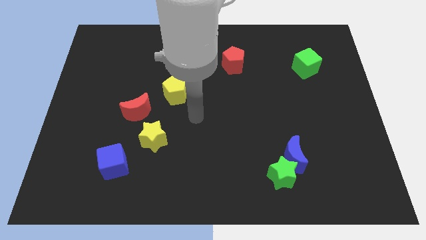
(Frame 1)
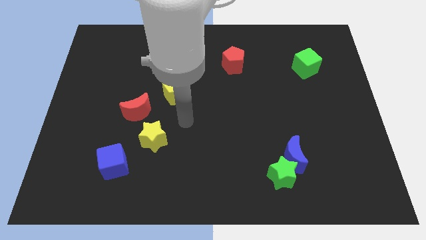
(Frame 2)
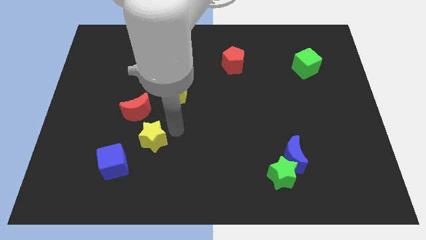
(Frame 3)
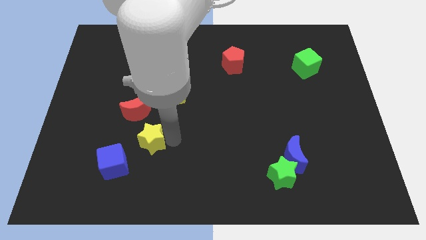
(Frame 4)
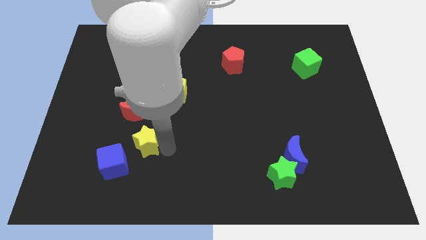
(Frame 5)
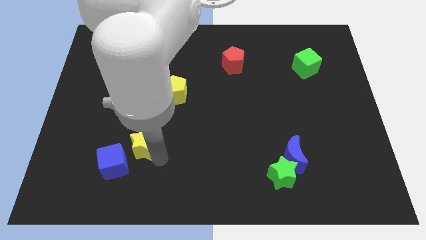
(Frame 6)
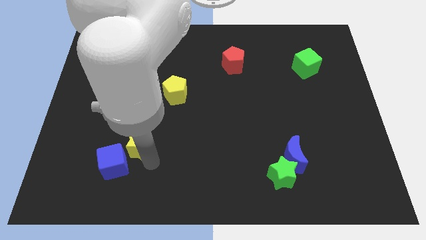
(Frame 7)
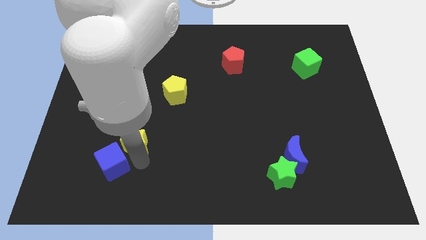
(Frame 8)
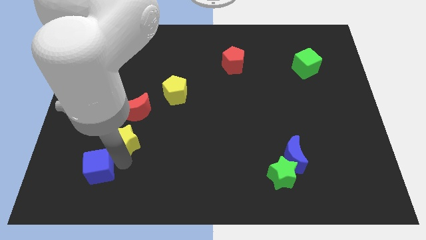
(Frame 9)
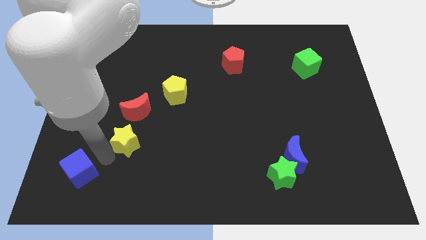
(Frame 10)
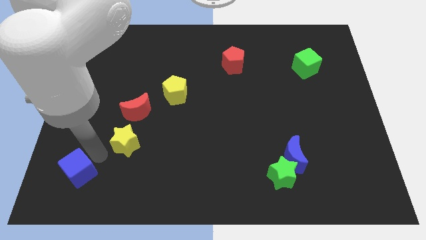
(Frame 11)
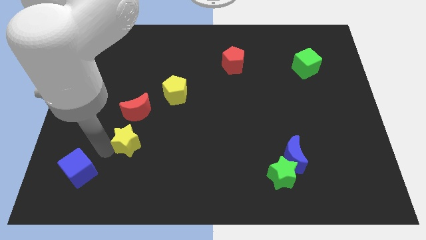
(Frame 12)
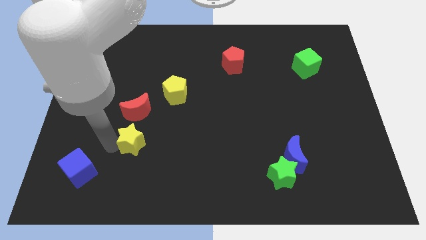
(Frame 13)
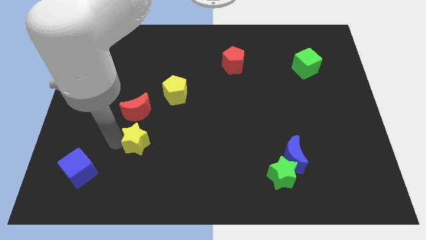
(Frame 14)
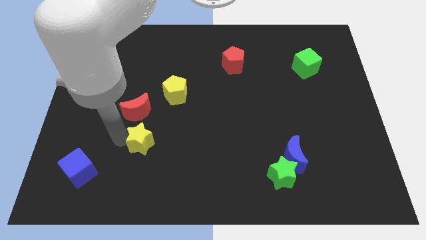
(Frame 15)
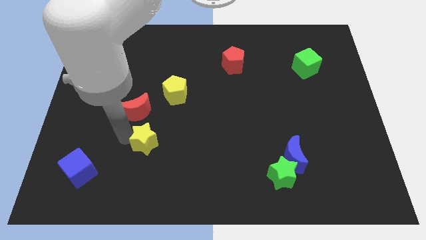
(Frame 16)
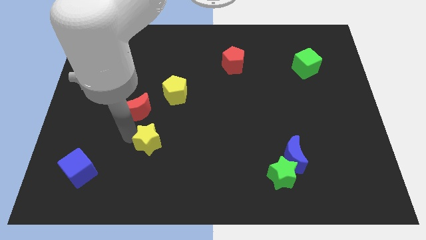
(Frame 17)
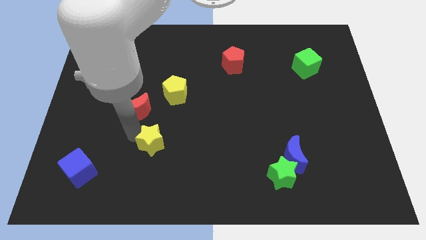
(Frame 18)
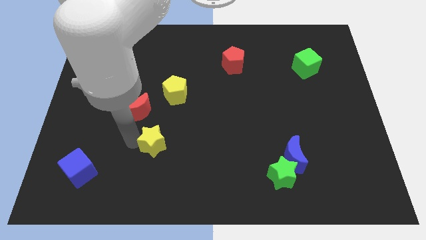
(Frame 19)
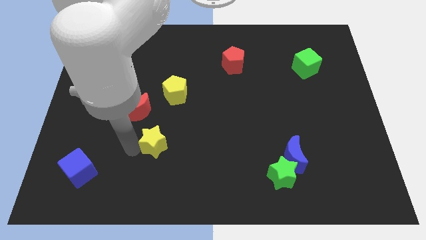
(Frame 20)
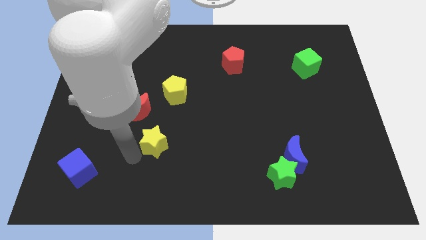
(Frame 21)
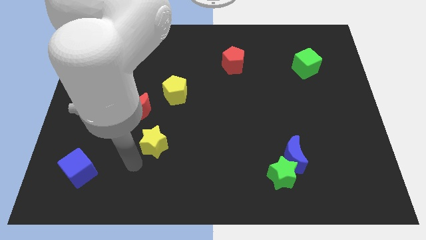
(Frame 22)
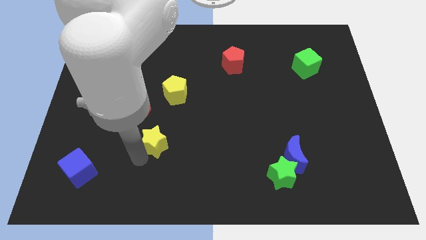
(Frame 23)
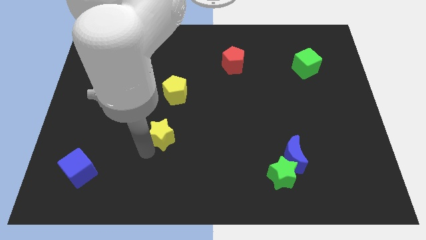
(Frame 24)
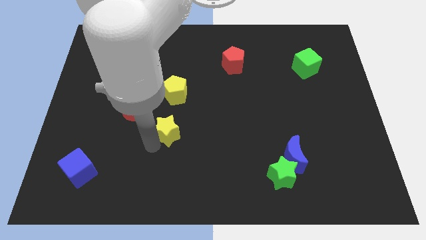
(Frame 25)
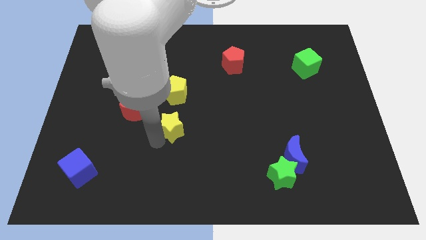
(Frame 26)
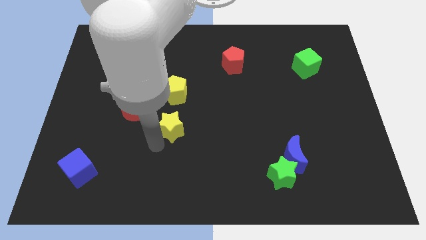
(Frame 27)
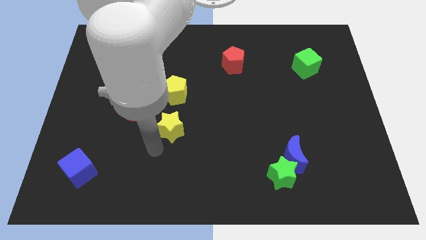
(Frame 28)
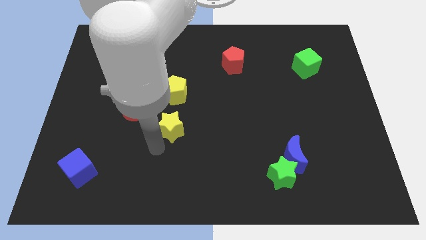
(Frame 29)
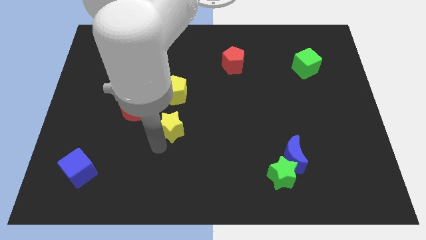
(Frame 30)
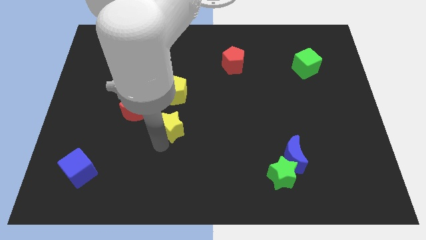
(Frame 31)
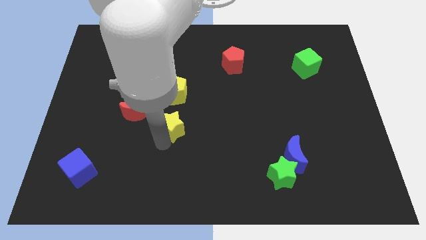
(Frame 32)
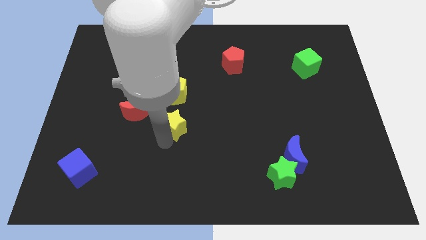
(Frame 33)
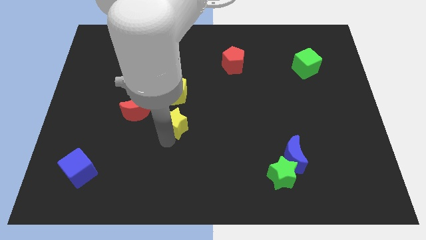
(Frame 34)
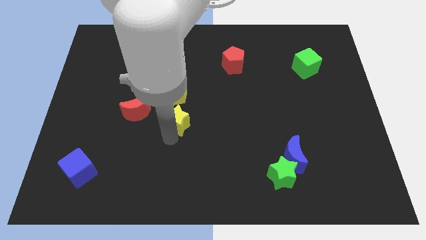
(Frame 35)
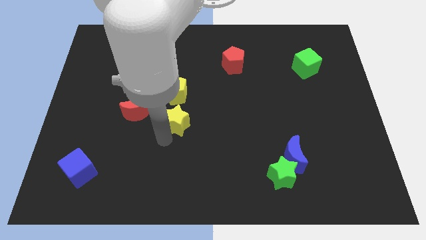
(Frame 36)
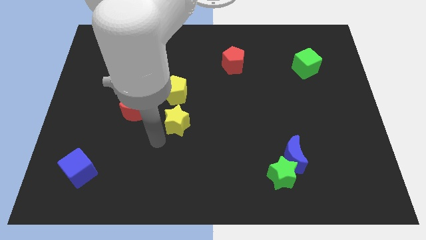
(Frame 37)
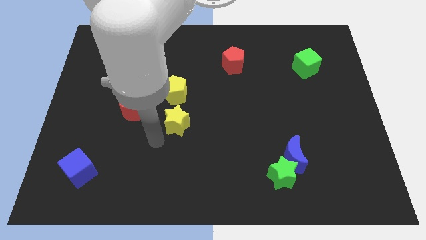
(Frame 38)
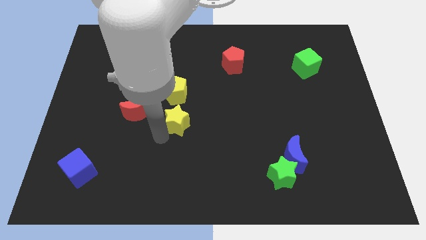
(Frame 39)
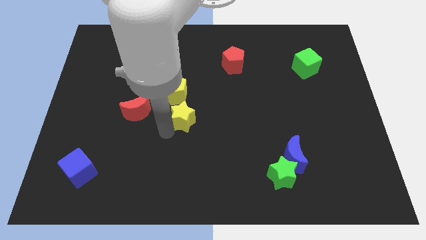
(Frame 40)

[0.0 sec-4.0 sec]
slightly move the yellow star diagonally upwards and to the right

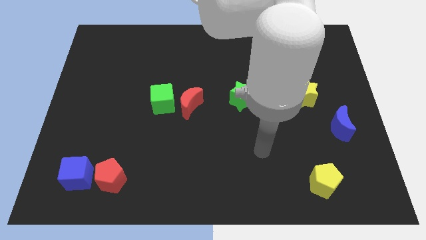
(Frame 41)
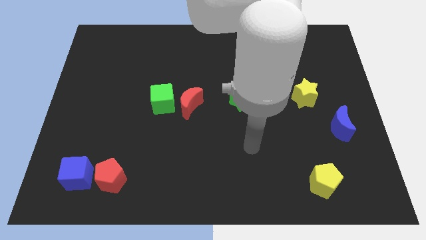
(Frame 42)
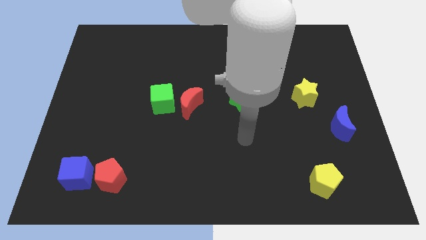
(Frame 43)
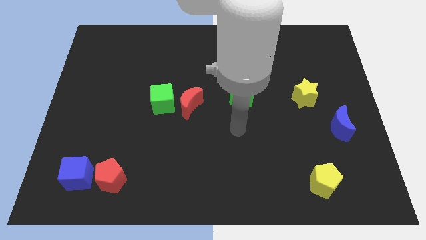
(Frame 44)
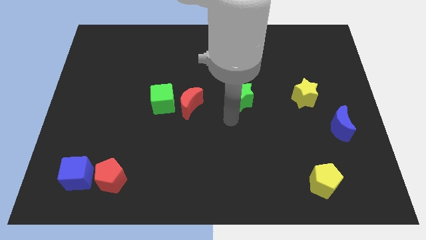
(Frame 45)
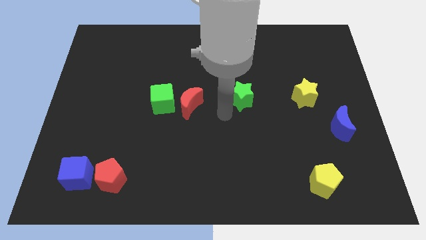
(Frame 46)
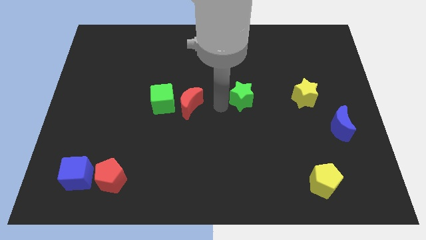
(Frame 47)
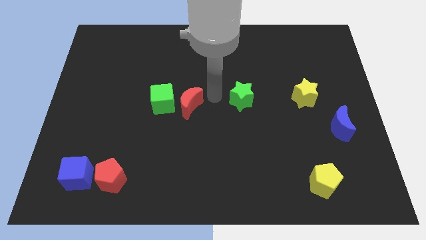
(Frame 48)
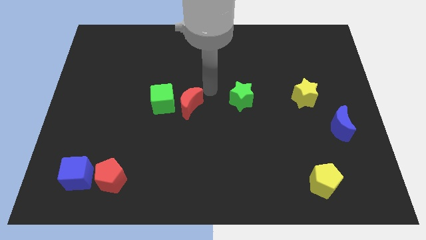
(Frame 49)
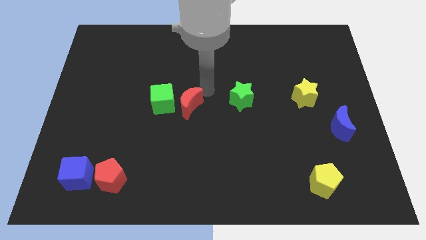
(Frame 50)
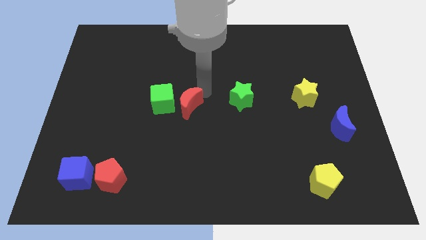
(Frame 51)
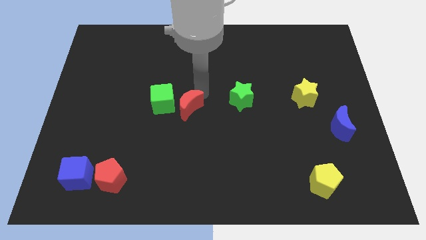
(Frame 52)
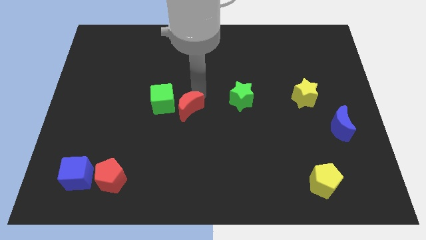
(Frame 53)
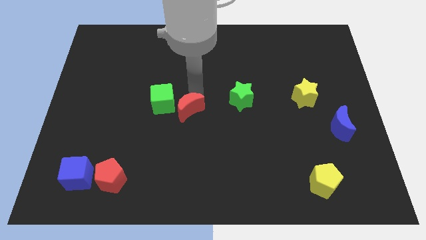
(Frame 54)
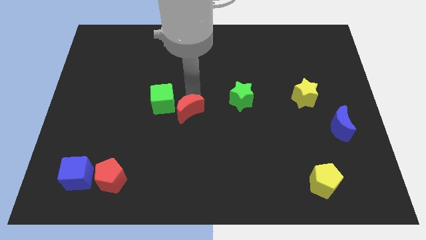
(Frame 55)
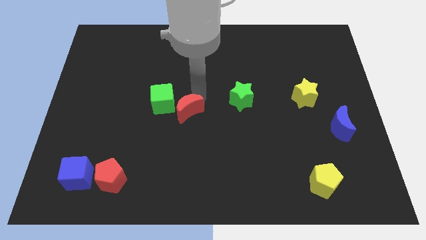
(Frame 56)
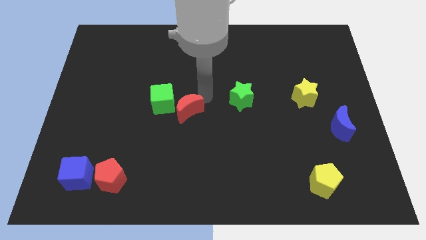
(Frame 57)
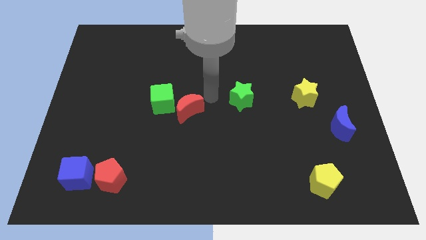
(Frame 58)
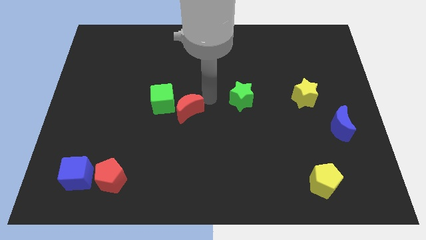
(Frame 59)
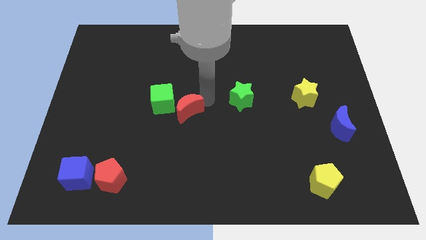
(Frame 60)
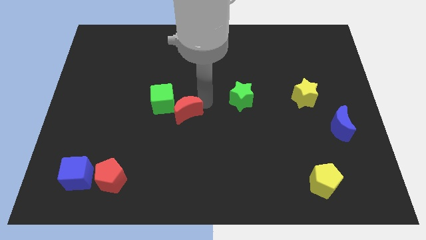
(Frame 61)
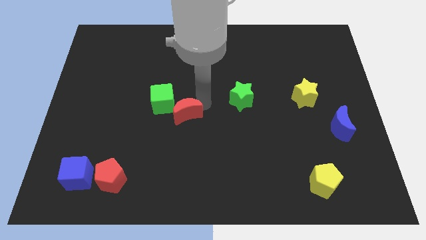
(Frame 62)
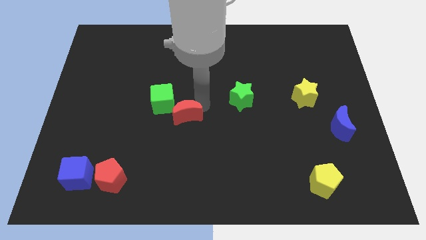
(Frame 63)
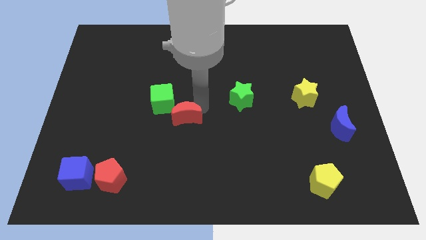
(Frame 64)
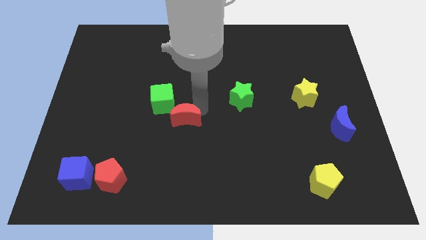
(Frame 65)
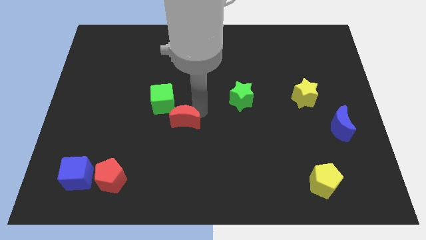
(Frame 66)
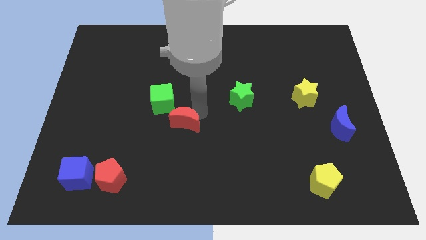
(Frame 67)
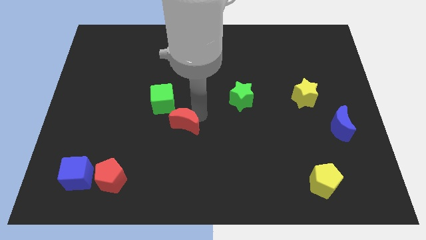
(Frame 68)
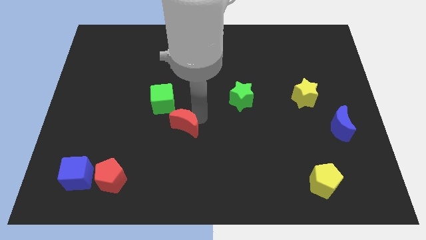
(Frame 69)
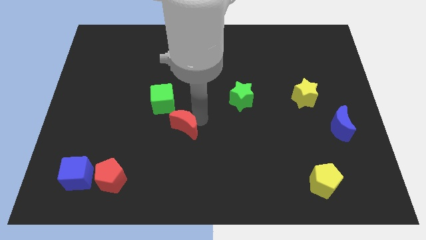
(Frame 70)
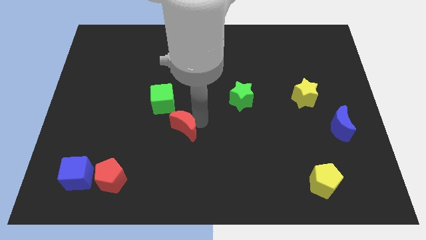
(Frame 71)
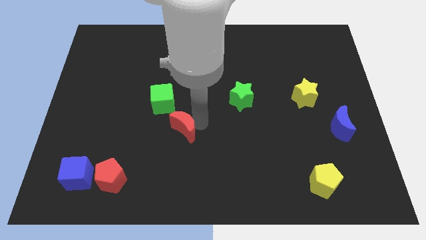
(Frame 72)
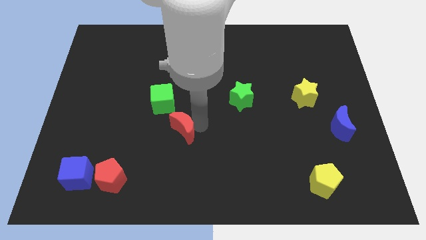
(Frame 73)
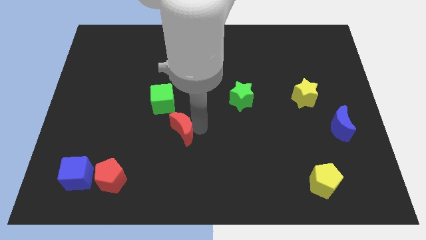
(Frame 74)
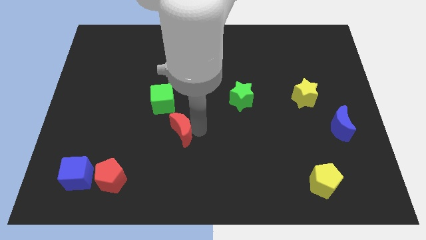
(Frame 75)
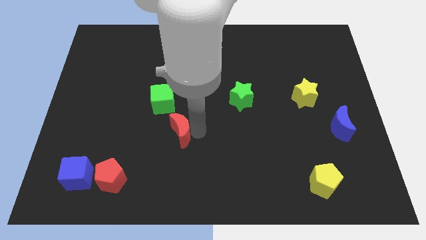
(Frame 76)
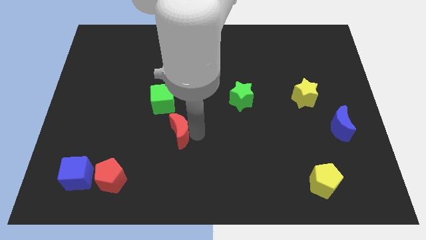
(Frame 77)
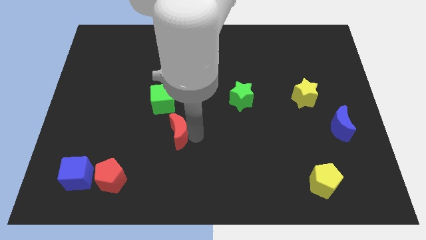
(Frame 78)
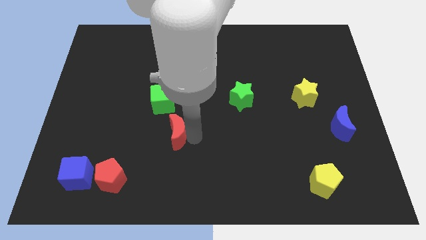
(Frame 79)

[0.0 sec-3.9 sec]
slide the red moon a little down and left diagonally

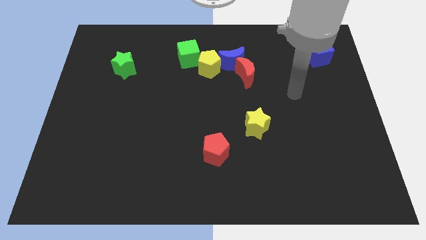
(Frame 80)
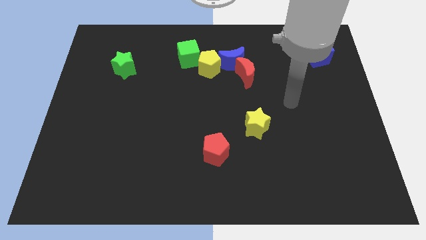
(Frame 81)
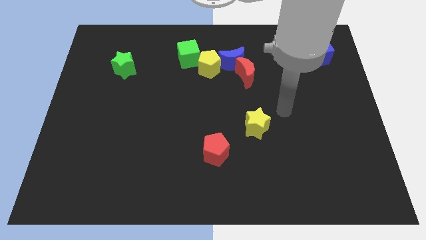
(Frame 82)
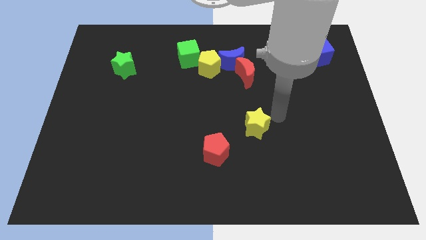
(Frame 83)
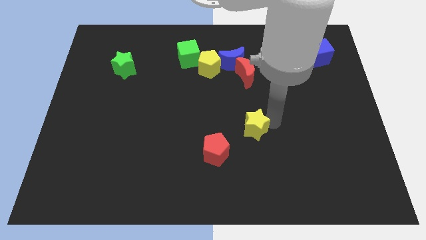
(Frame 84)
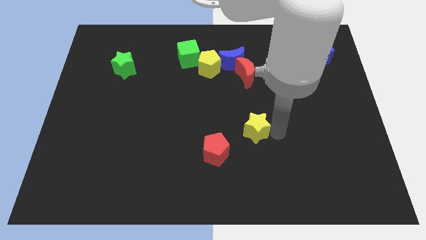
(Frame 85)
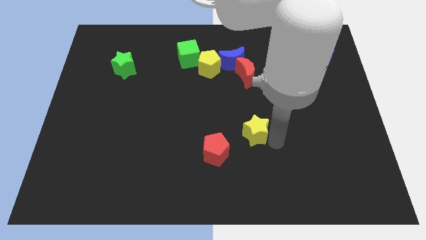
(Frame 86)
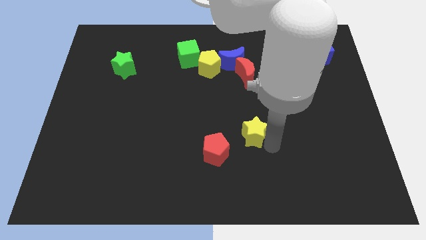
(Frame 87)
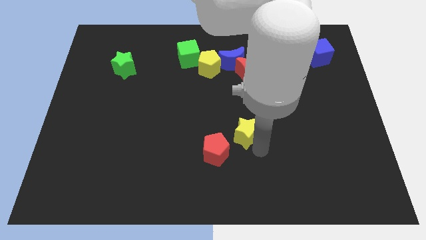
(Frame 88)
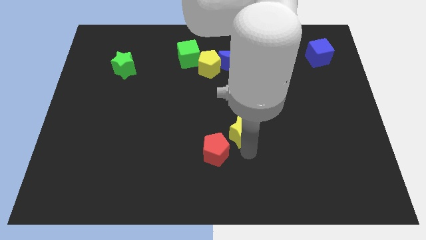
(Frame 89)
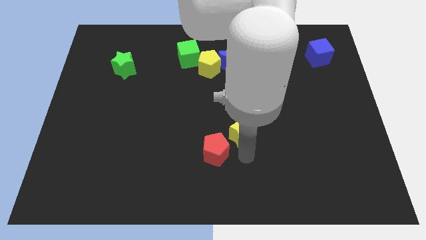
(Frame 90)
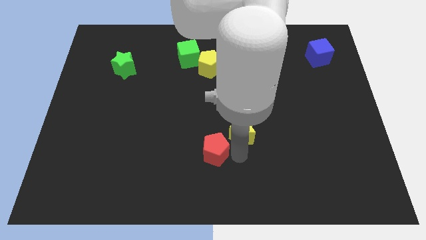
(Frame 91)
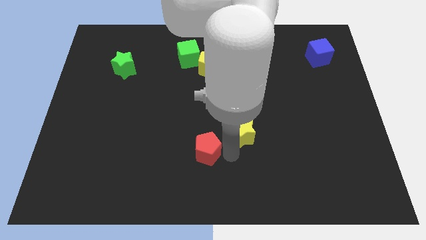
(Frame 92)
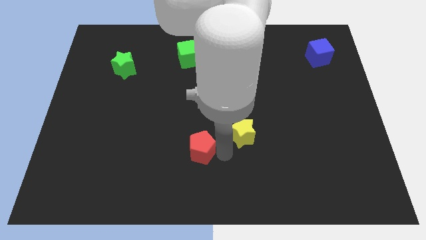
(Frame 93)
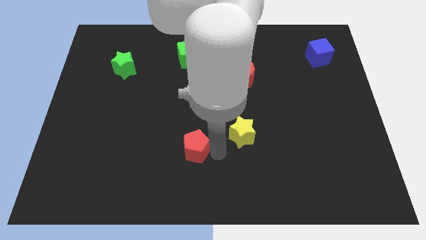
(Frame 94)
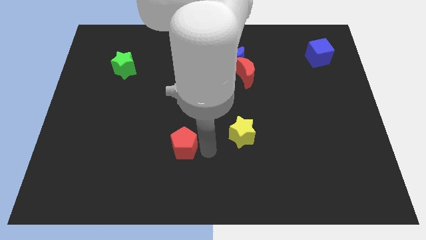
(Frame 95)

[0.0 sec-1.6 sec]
slightly push the red pentagon to the left
